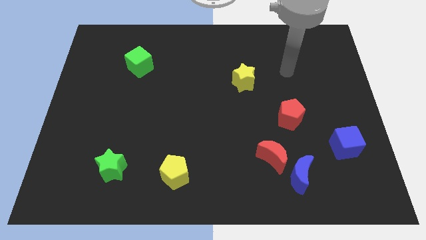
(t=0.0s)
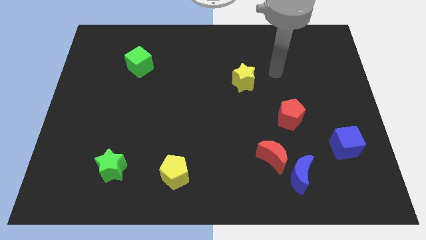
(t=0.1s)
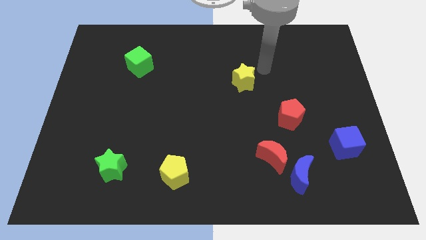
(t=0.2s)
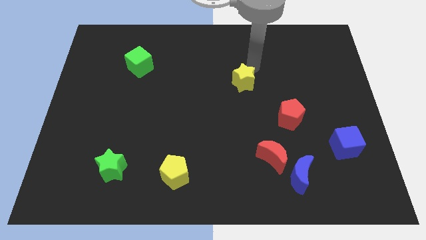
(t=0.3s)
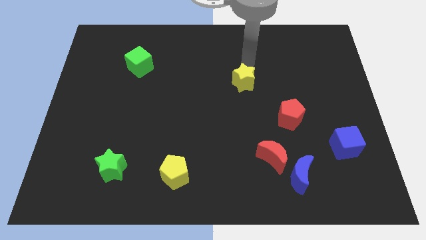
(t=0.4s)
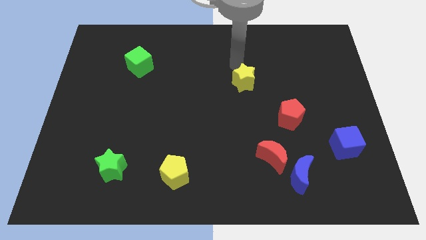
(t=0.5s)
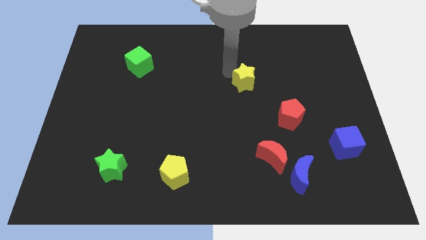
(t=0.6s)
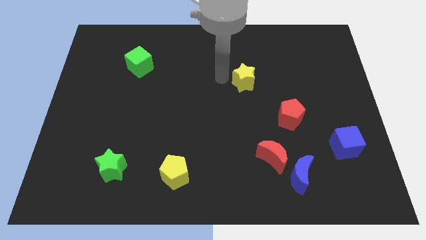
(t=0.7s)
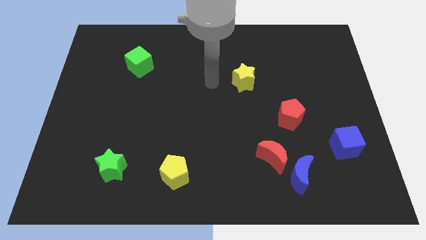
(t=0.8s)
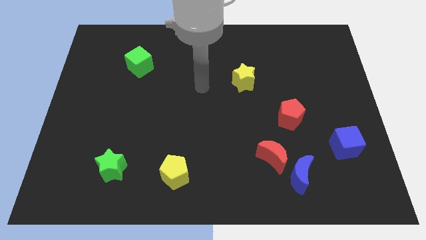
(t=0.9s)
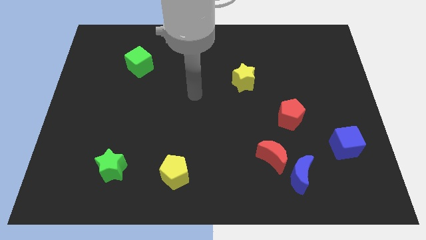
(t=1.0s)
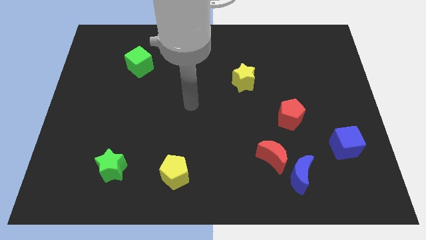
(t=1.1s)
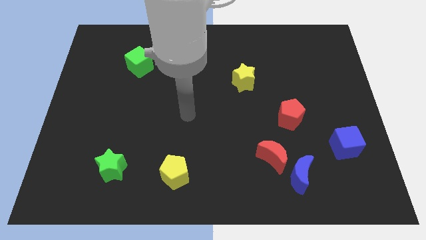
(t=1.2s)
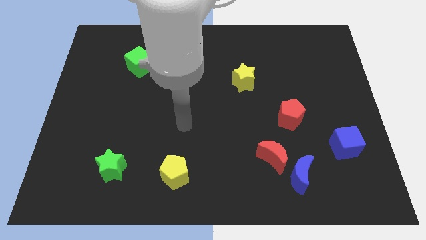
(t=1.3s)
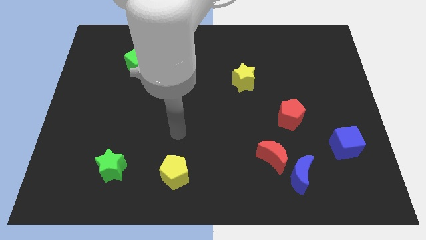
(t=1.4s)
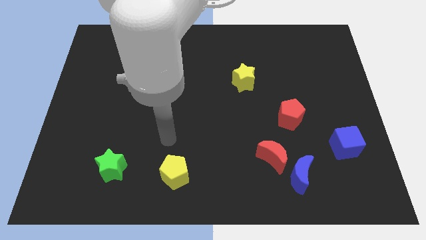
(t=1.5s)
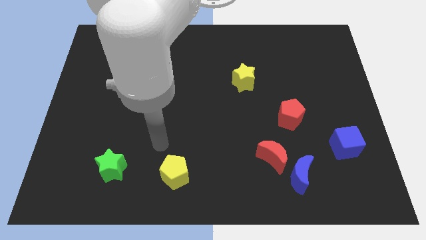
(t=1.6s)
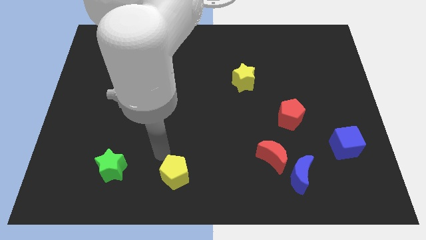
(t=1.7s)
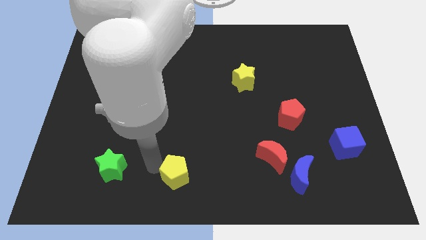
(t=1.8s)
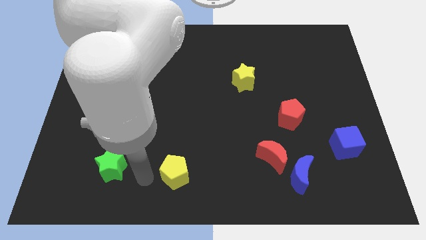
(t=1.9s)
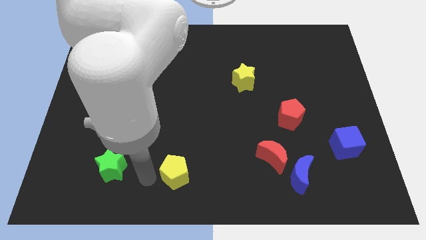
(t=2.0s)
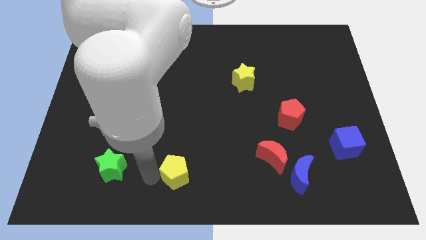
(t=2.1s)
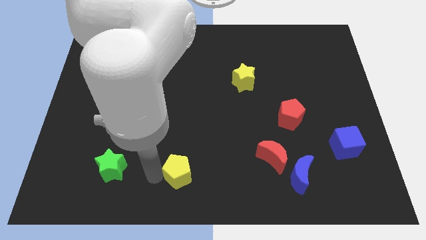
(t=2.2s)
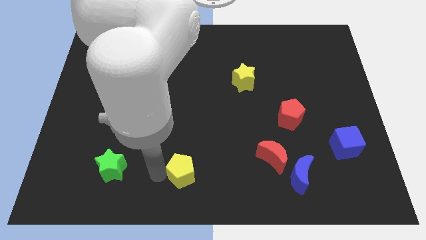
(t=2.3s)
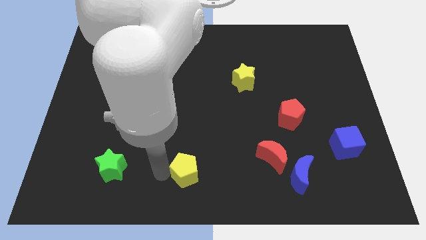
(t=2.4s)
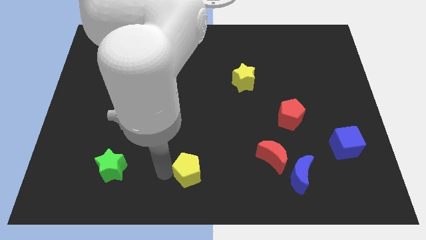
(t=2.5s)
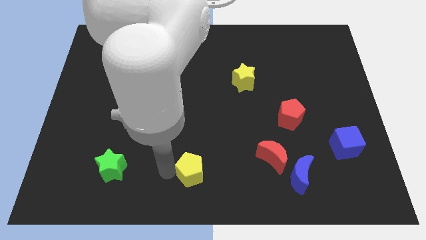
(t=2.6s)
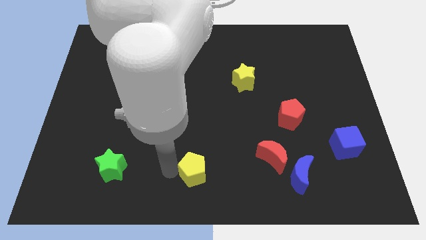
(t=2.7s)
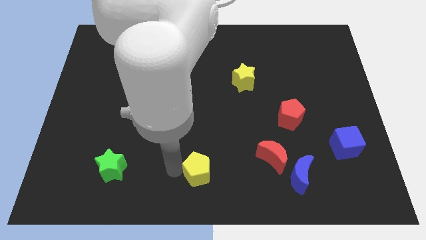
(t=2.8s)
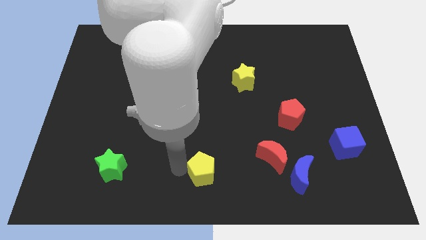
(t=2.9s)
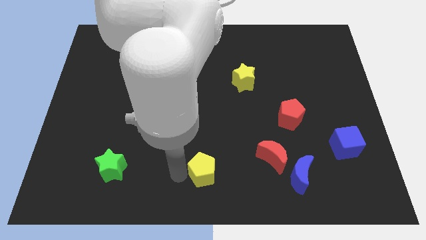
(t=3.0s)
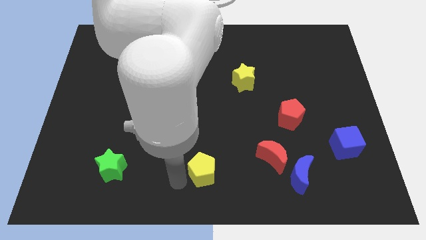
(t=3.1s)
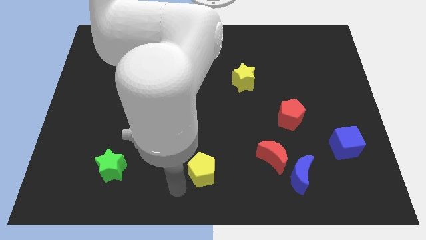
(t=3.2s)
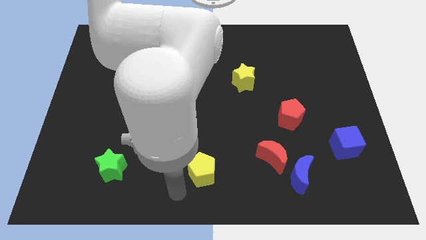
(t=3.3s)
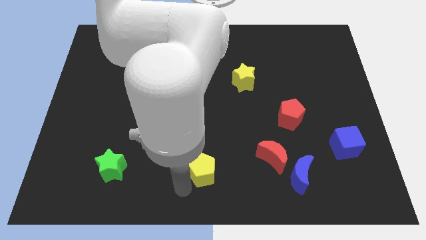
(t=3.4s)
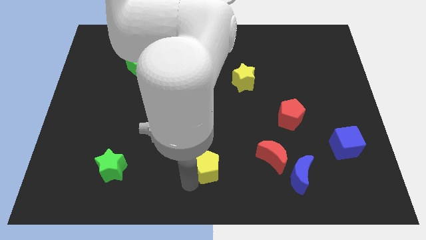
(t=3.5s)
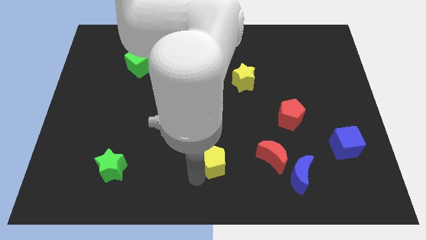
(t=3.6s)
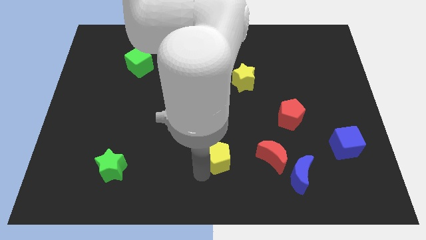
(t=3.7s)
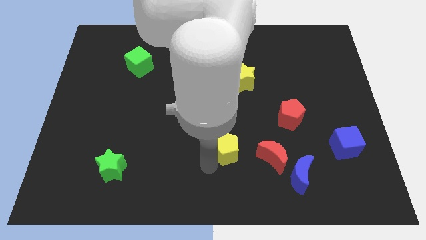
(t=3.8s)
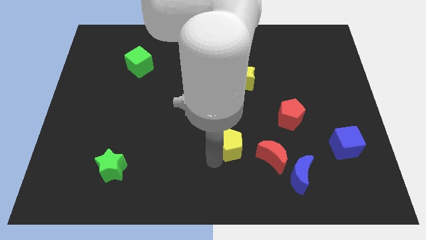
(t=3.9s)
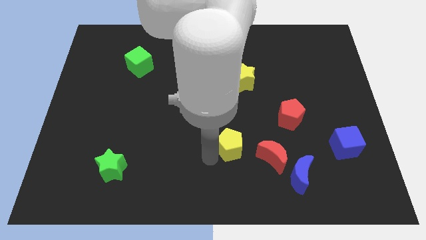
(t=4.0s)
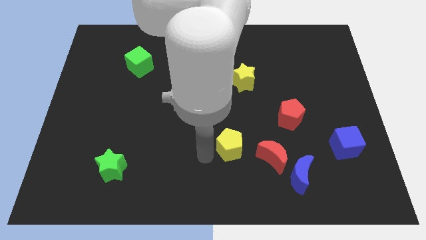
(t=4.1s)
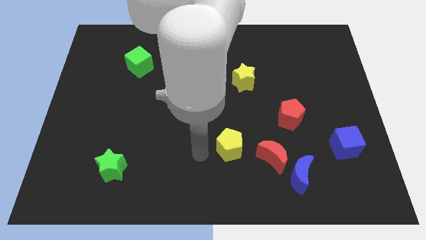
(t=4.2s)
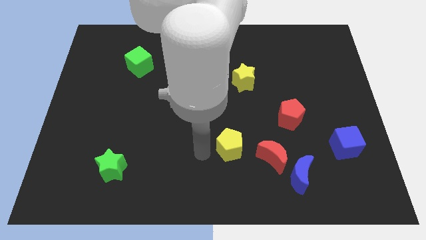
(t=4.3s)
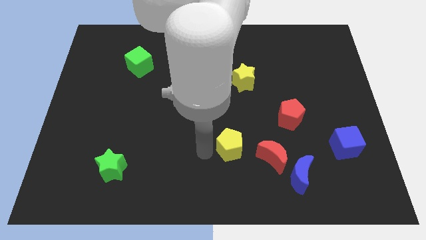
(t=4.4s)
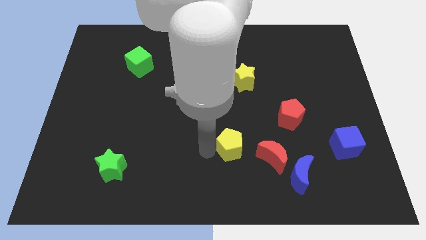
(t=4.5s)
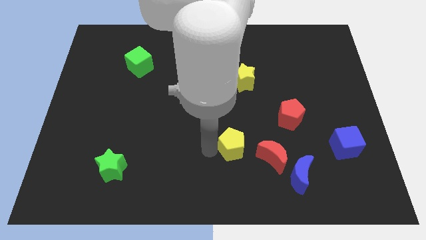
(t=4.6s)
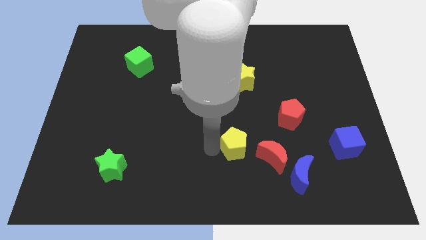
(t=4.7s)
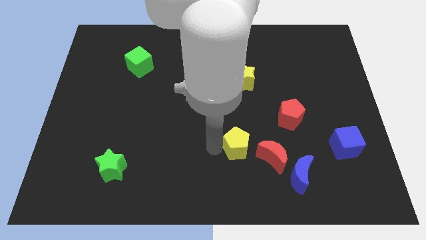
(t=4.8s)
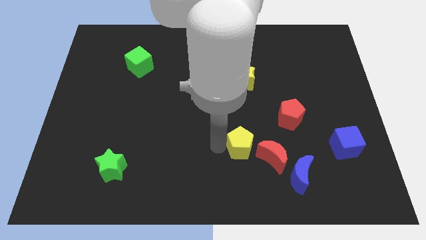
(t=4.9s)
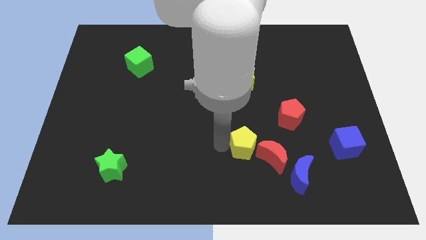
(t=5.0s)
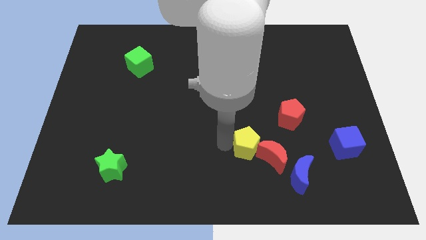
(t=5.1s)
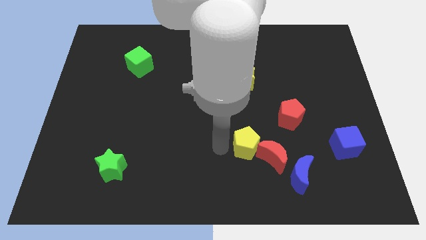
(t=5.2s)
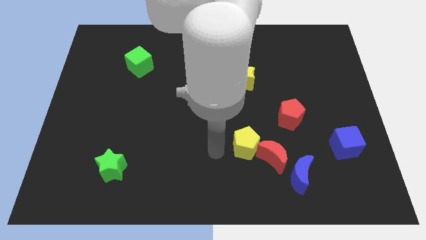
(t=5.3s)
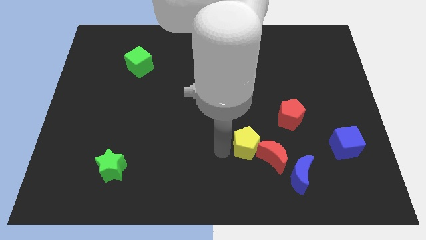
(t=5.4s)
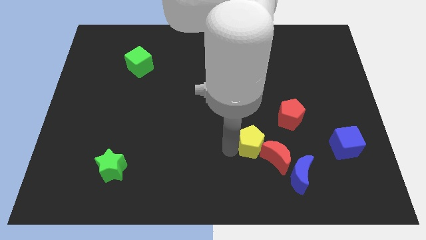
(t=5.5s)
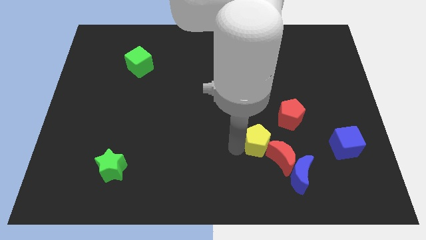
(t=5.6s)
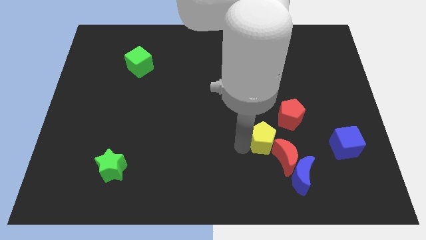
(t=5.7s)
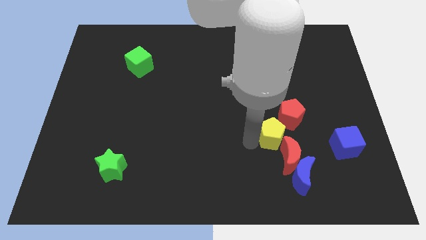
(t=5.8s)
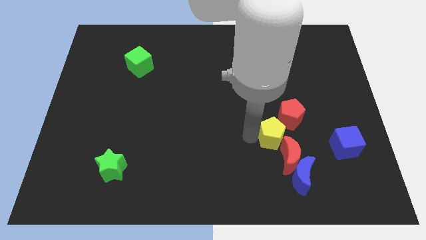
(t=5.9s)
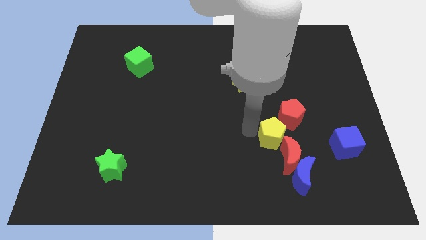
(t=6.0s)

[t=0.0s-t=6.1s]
move the yellow pentagon to the bottom of the red pentagon

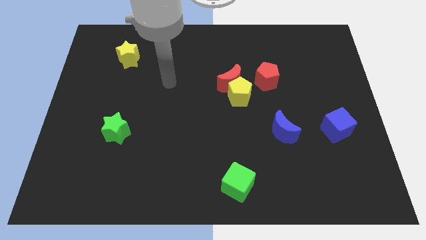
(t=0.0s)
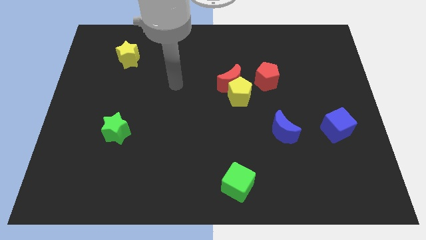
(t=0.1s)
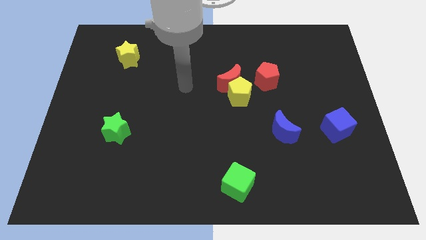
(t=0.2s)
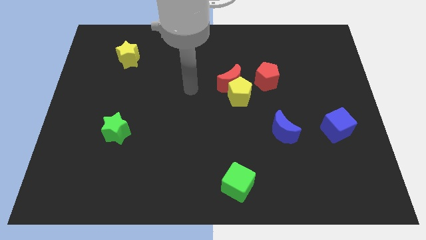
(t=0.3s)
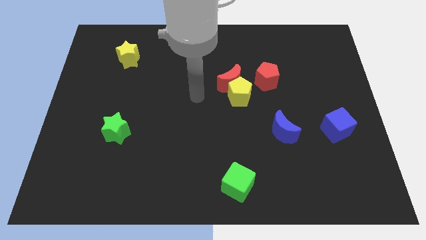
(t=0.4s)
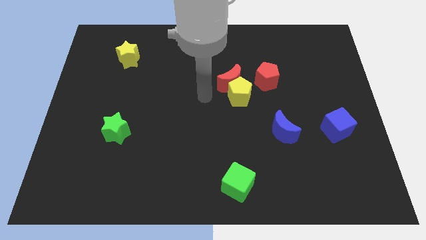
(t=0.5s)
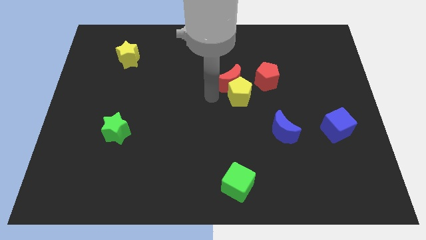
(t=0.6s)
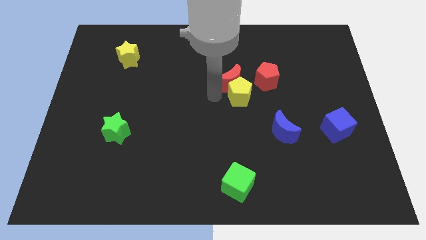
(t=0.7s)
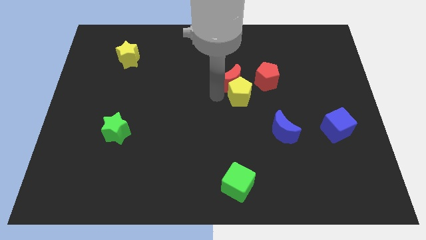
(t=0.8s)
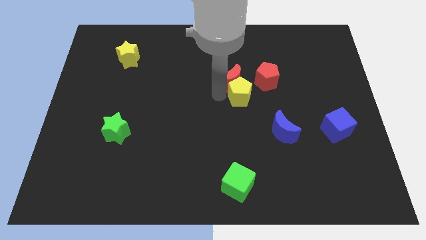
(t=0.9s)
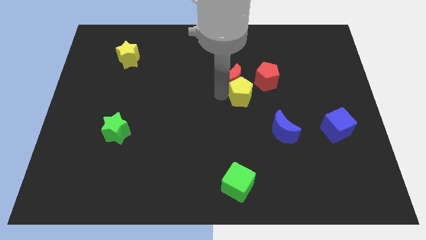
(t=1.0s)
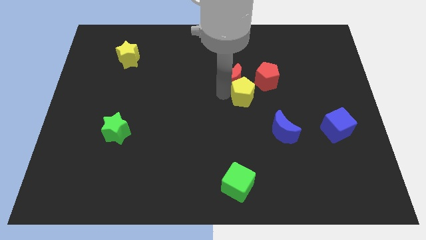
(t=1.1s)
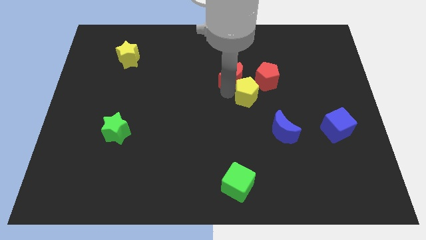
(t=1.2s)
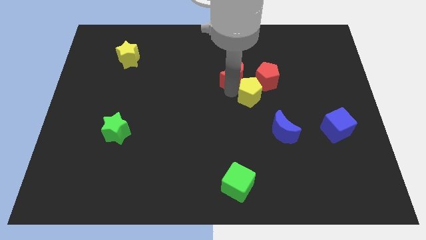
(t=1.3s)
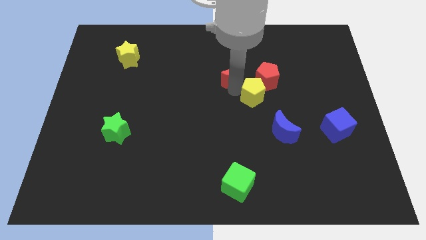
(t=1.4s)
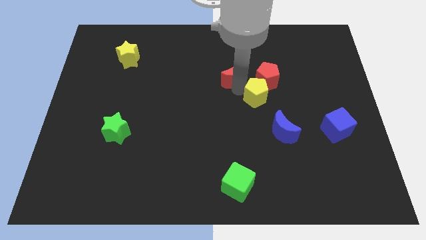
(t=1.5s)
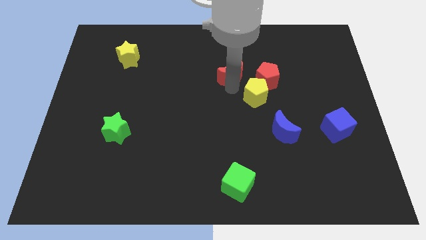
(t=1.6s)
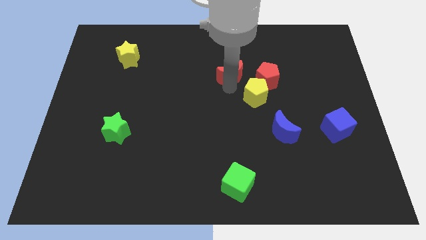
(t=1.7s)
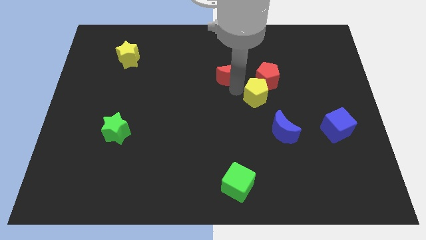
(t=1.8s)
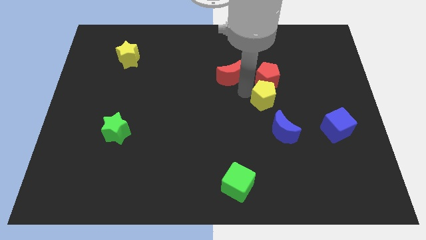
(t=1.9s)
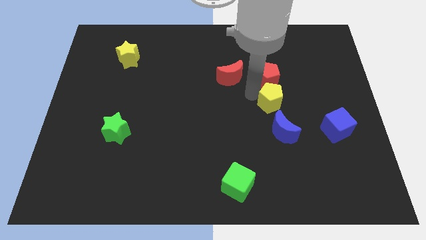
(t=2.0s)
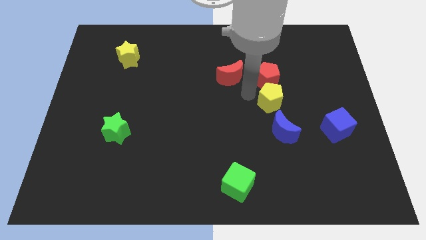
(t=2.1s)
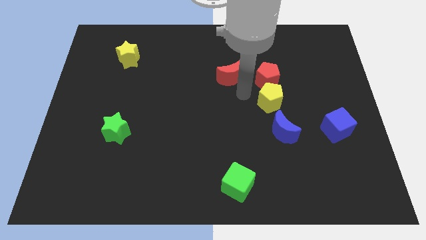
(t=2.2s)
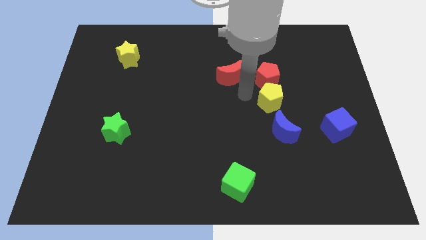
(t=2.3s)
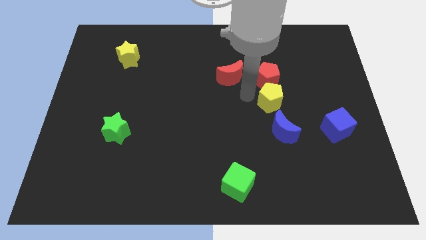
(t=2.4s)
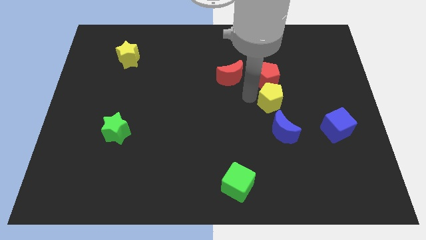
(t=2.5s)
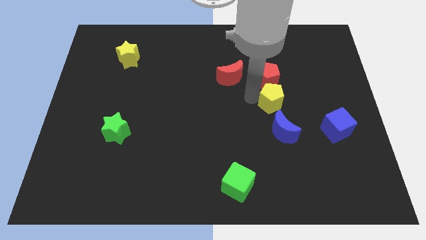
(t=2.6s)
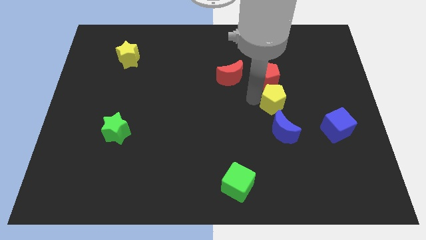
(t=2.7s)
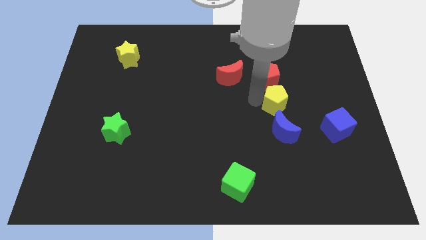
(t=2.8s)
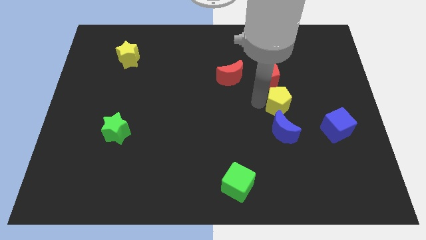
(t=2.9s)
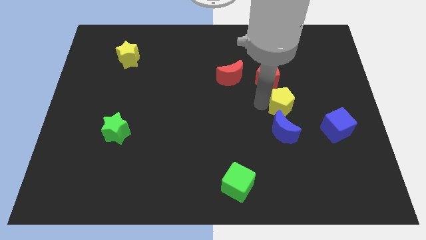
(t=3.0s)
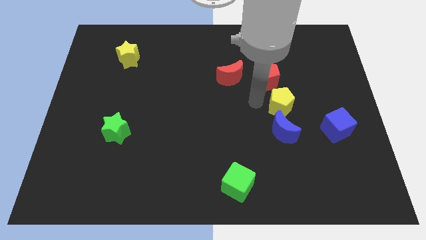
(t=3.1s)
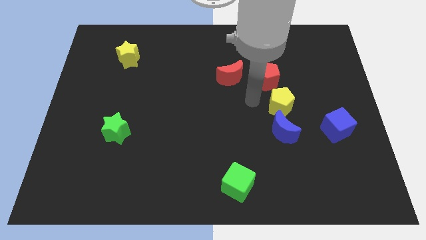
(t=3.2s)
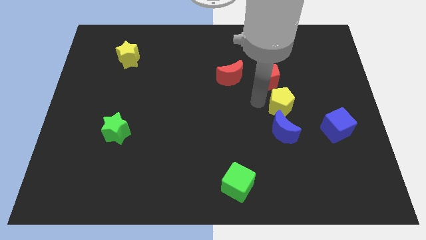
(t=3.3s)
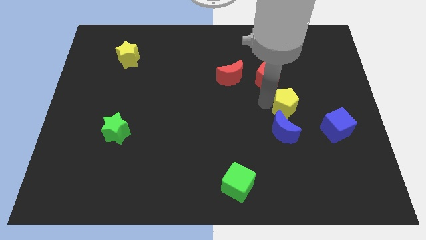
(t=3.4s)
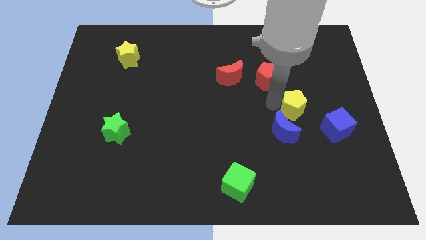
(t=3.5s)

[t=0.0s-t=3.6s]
put the yellow pentagon to the top left side of the blue cube
